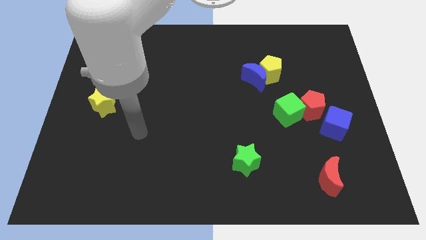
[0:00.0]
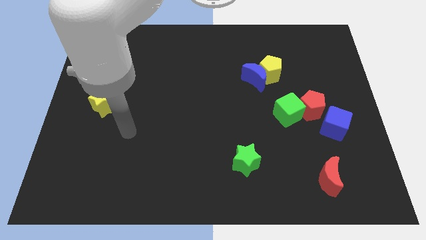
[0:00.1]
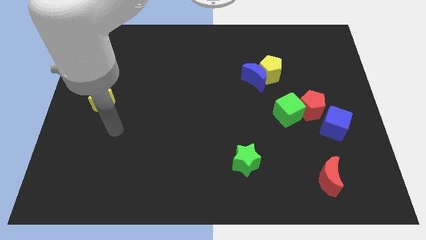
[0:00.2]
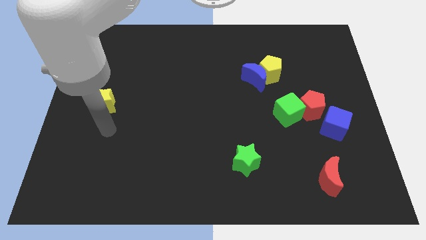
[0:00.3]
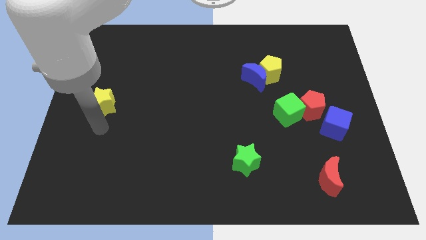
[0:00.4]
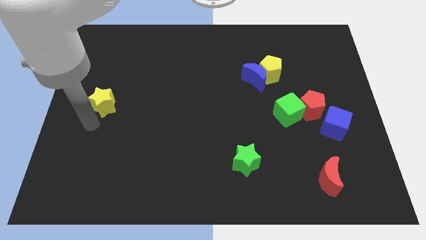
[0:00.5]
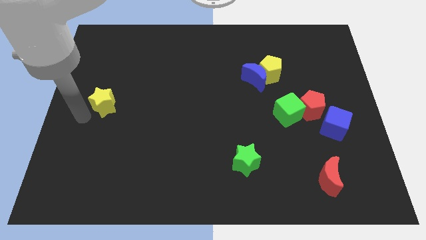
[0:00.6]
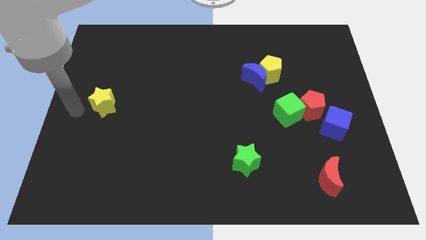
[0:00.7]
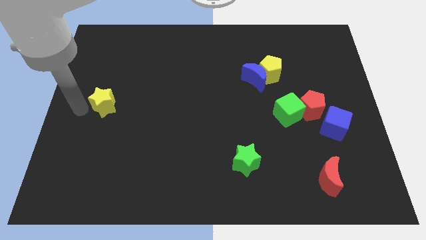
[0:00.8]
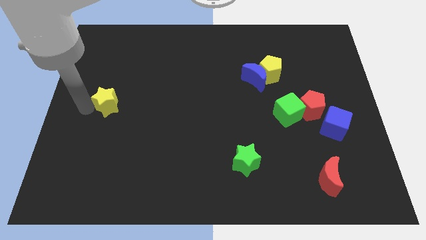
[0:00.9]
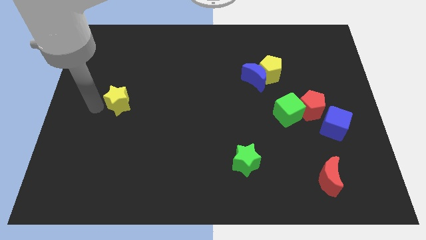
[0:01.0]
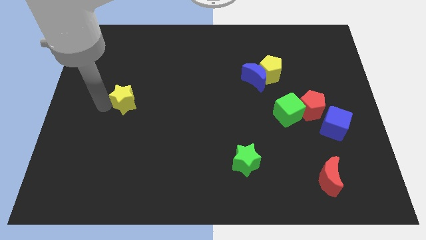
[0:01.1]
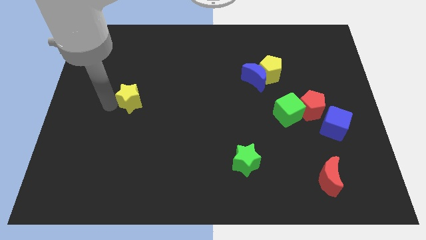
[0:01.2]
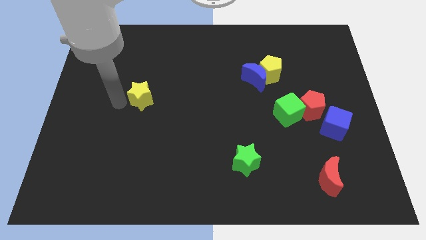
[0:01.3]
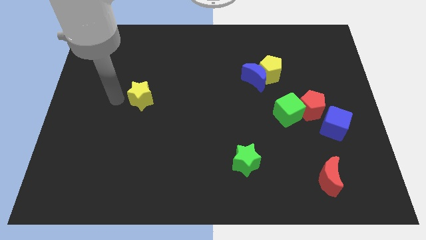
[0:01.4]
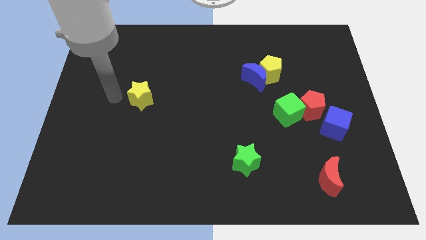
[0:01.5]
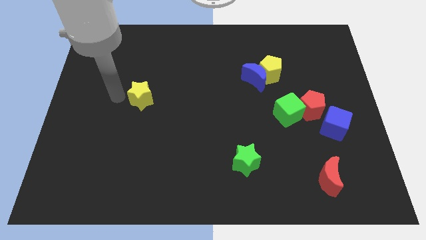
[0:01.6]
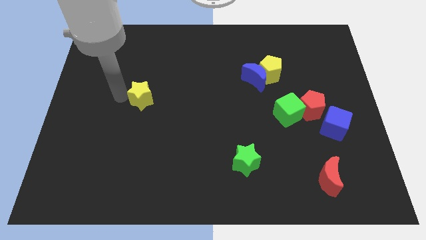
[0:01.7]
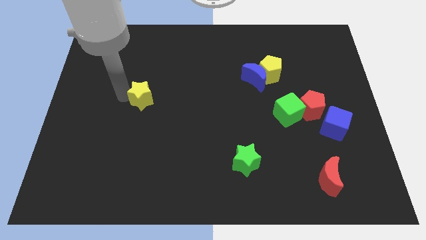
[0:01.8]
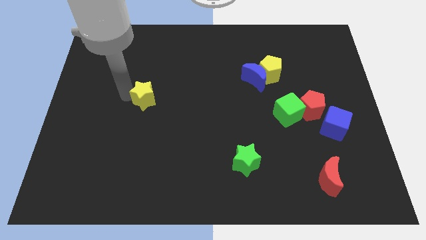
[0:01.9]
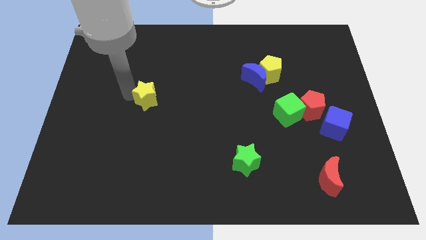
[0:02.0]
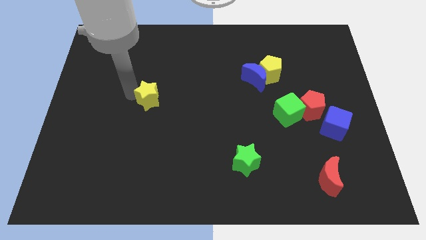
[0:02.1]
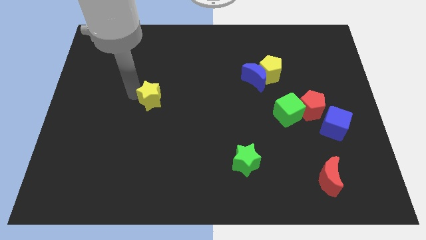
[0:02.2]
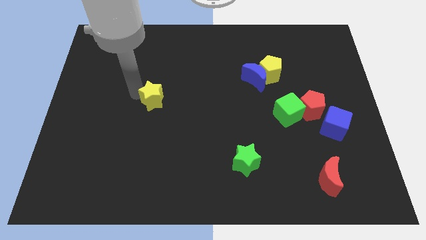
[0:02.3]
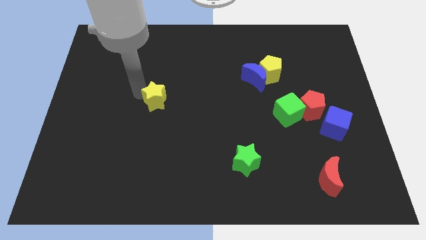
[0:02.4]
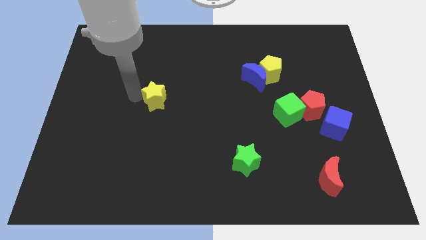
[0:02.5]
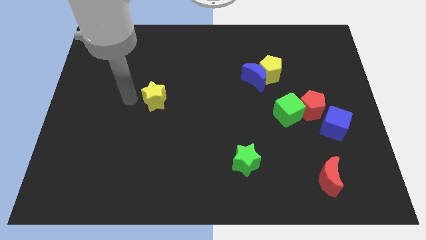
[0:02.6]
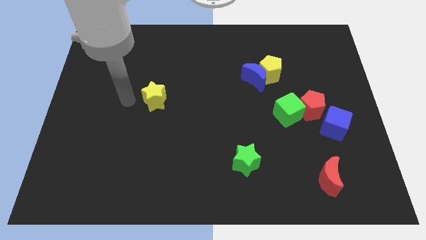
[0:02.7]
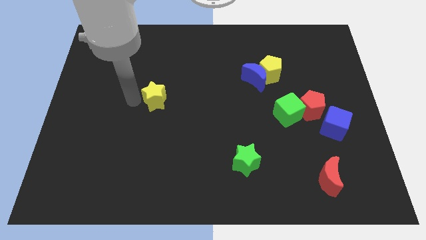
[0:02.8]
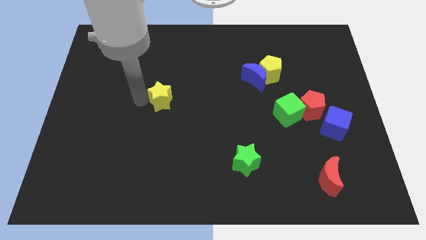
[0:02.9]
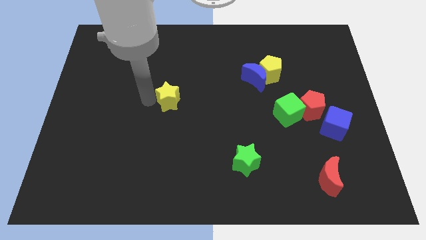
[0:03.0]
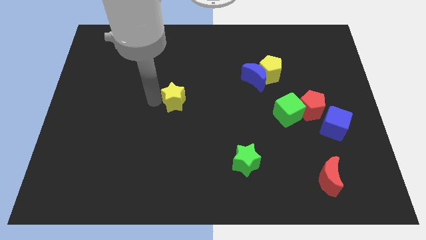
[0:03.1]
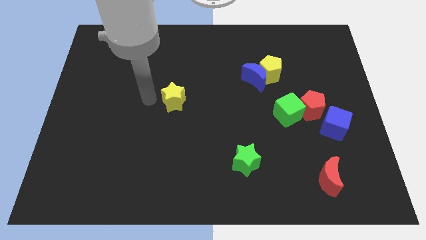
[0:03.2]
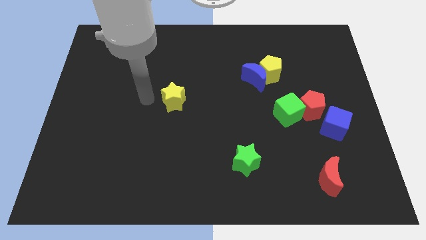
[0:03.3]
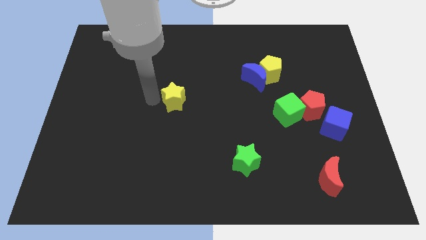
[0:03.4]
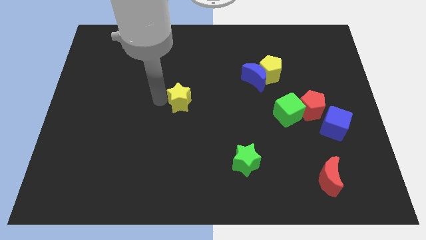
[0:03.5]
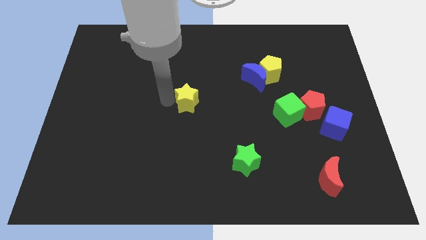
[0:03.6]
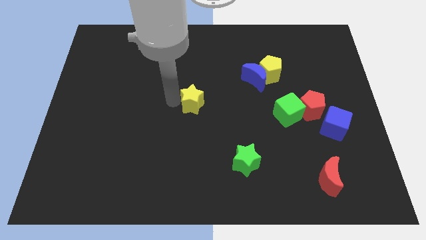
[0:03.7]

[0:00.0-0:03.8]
move the yellow star right

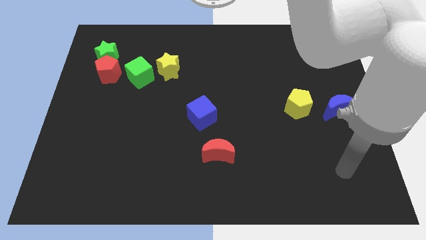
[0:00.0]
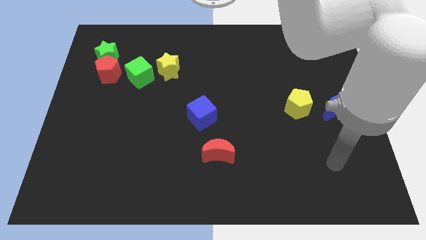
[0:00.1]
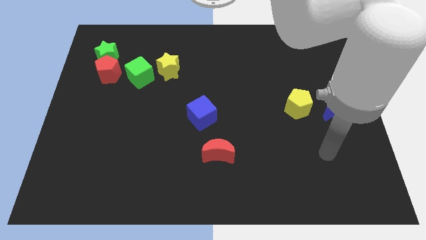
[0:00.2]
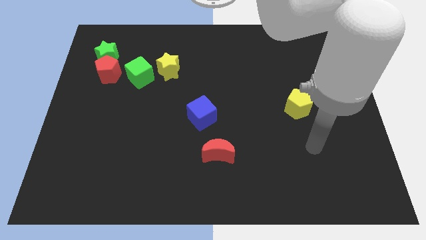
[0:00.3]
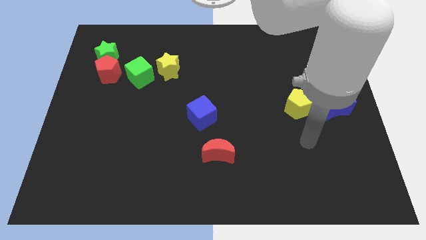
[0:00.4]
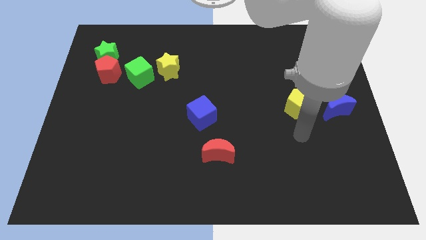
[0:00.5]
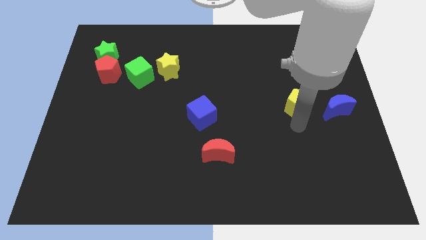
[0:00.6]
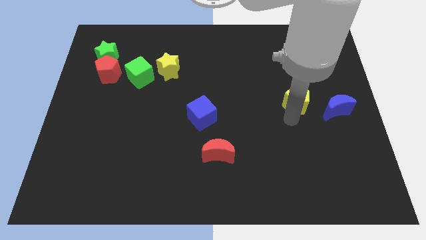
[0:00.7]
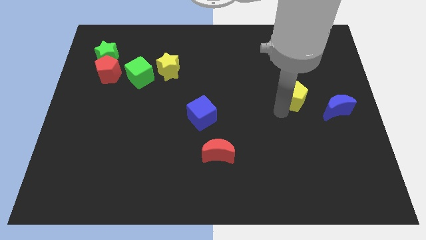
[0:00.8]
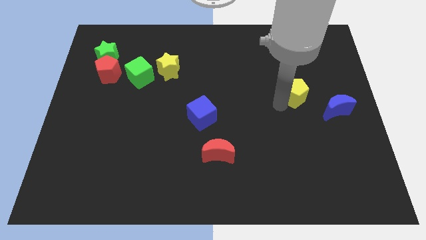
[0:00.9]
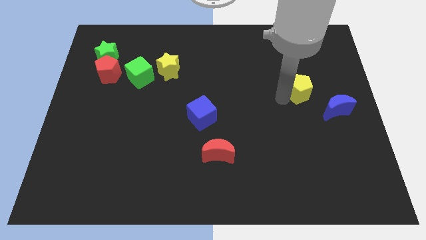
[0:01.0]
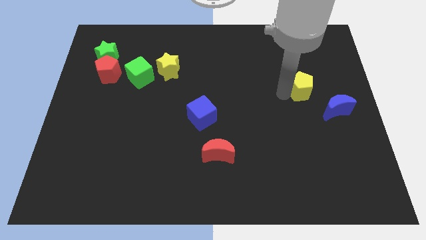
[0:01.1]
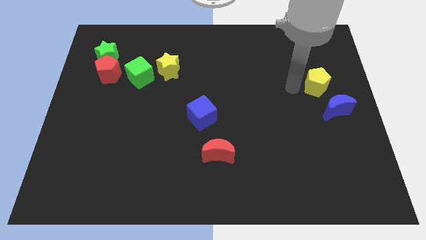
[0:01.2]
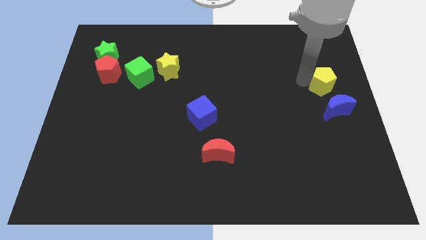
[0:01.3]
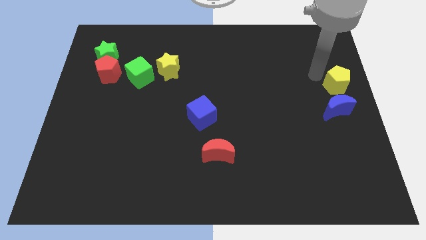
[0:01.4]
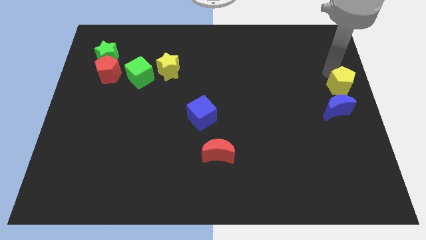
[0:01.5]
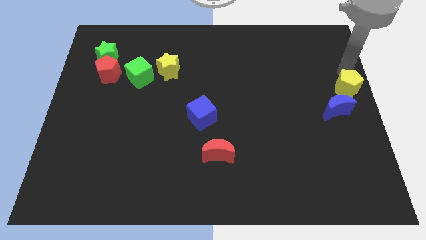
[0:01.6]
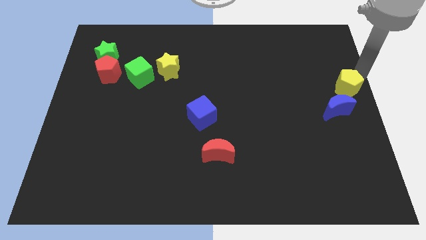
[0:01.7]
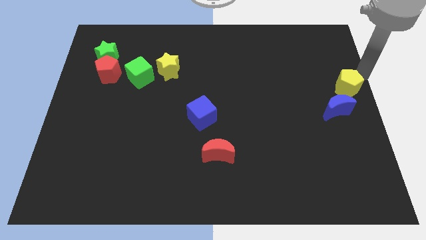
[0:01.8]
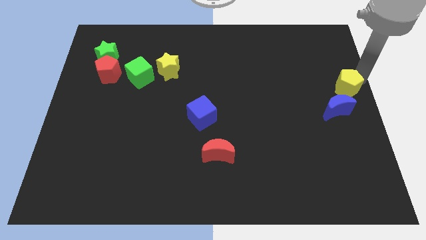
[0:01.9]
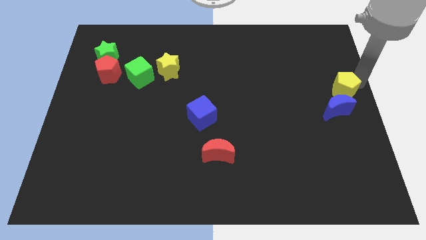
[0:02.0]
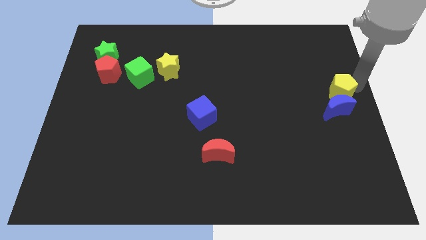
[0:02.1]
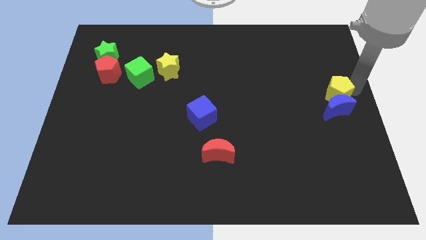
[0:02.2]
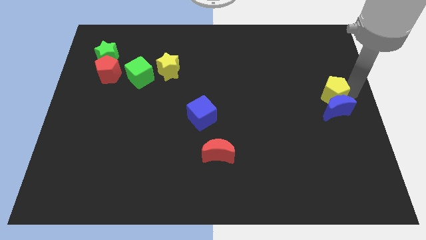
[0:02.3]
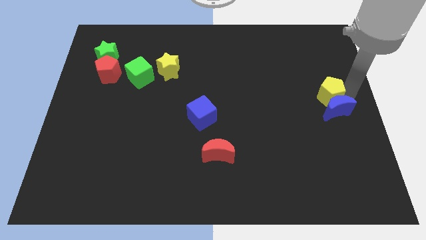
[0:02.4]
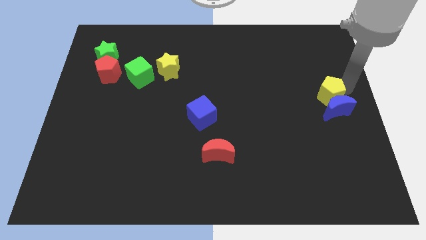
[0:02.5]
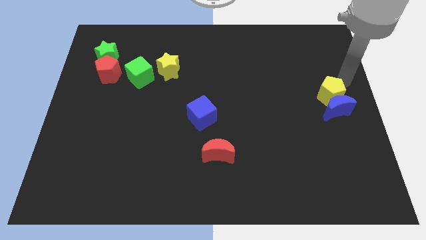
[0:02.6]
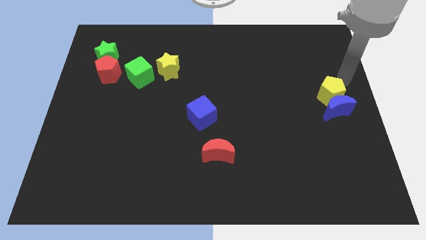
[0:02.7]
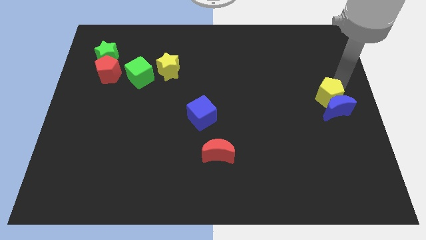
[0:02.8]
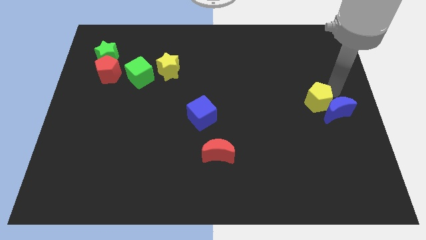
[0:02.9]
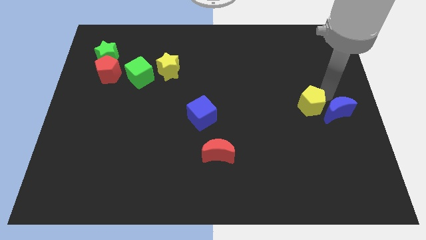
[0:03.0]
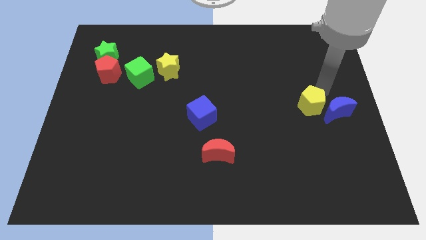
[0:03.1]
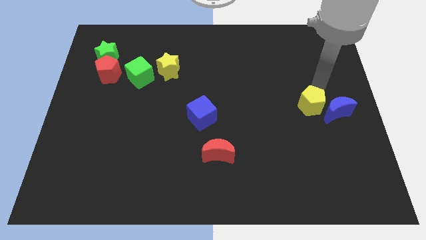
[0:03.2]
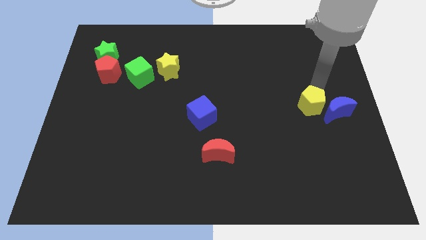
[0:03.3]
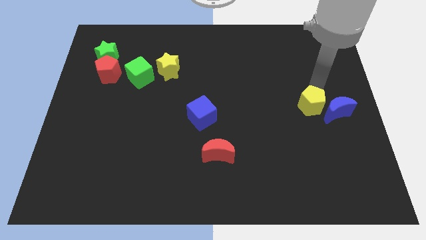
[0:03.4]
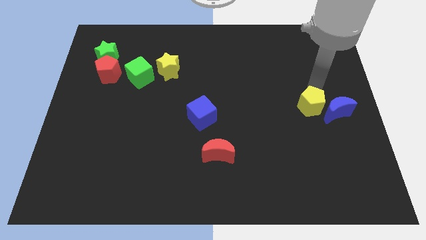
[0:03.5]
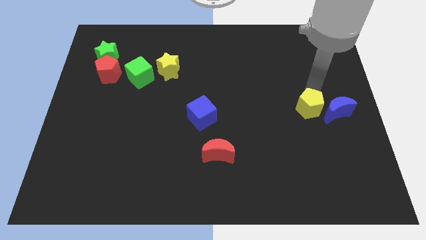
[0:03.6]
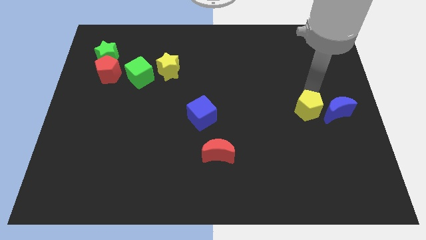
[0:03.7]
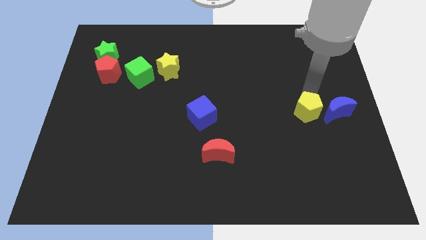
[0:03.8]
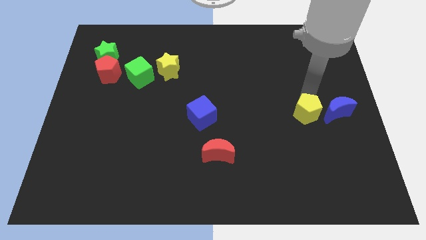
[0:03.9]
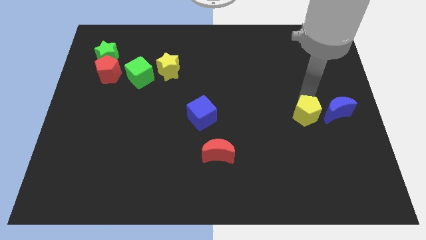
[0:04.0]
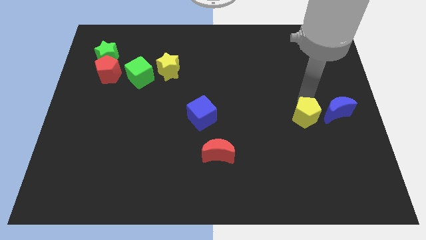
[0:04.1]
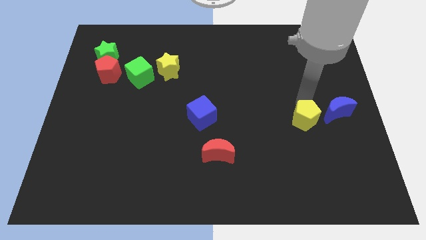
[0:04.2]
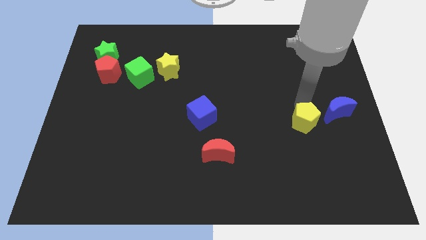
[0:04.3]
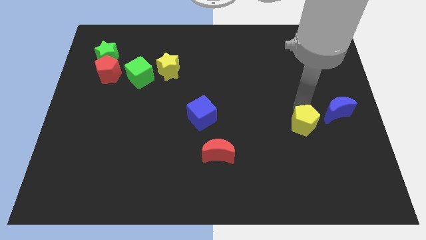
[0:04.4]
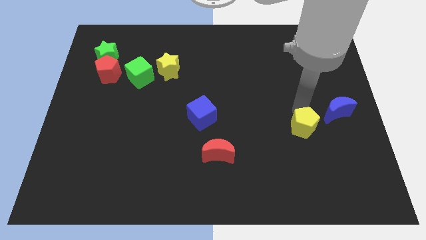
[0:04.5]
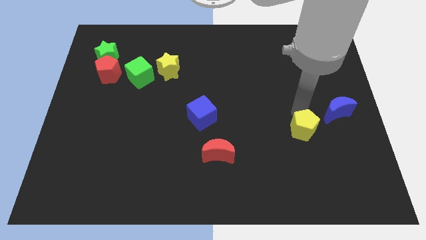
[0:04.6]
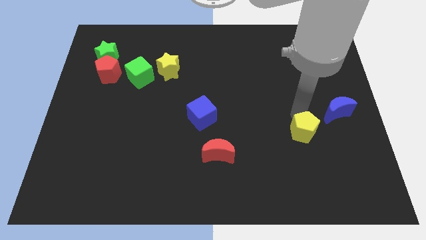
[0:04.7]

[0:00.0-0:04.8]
slightly slide the yellow pentagon downwards
